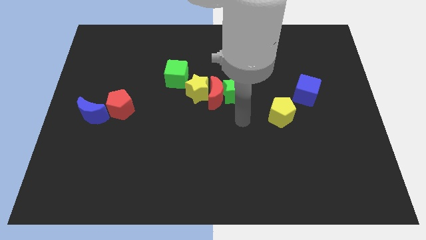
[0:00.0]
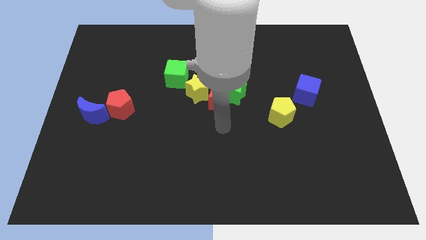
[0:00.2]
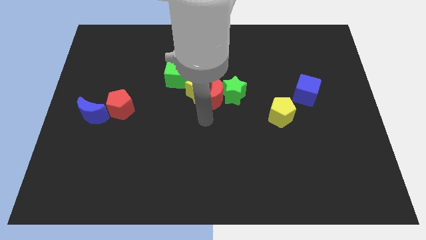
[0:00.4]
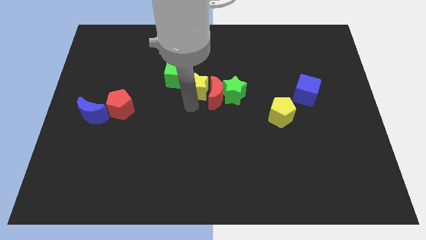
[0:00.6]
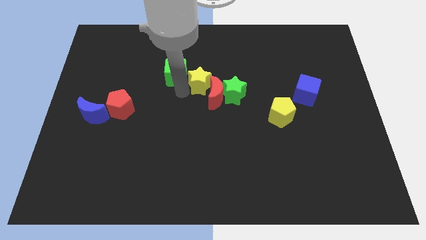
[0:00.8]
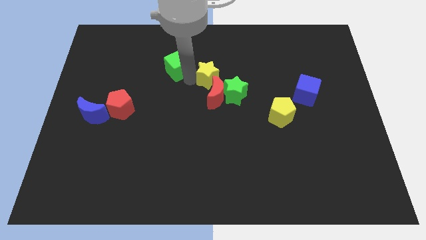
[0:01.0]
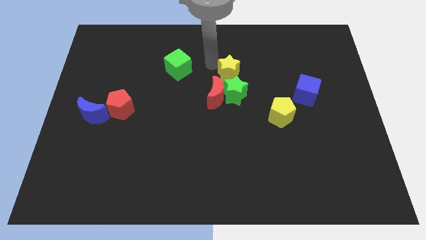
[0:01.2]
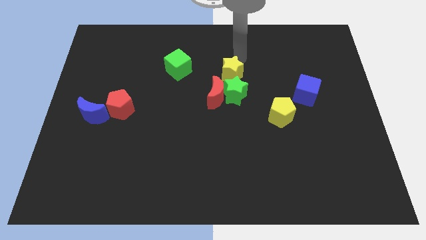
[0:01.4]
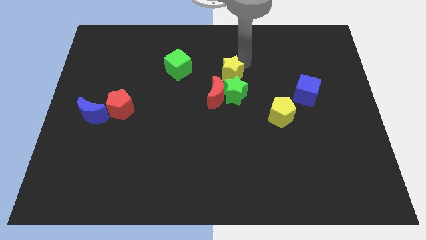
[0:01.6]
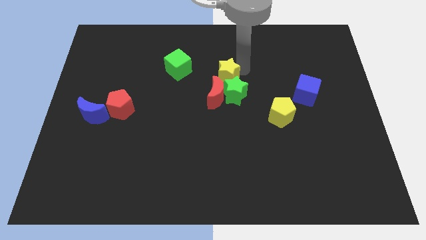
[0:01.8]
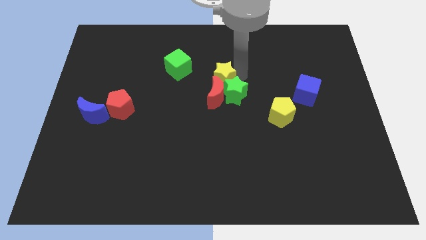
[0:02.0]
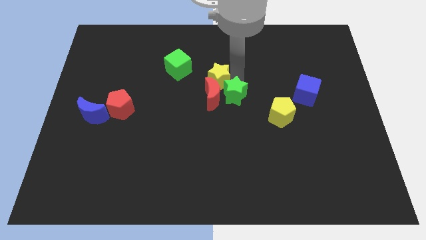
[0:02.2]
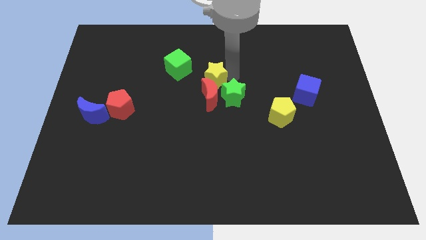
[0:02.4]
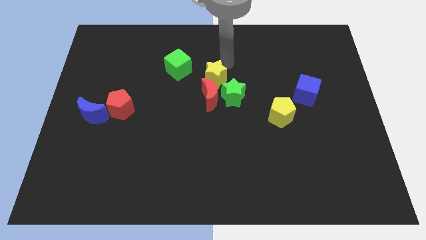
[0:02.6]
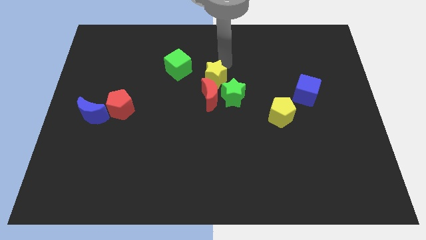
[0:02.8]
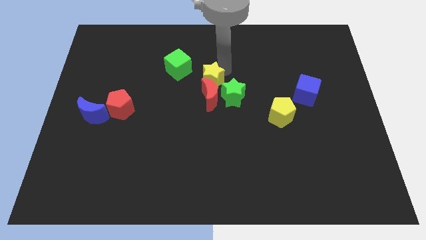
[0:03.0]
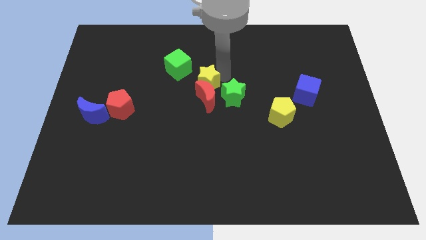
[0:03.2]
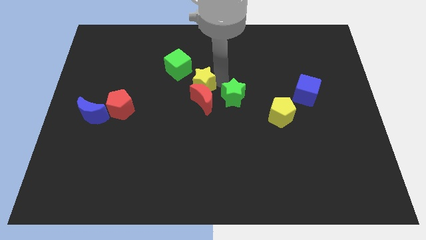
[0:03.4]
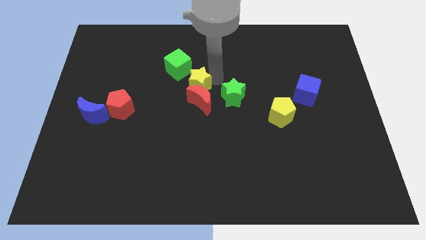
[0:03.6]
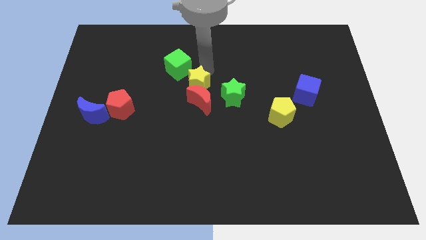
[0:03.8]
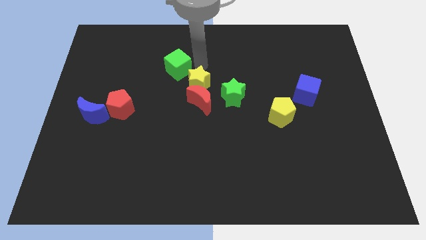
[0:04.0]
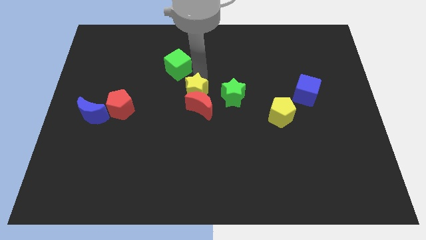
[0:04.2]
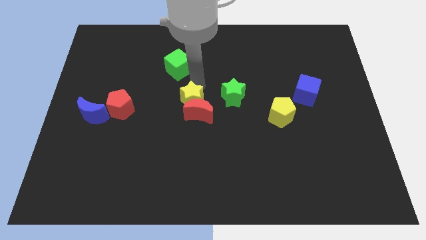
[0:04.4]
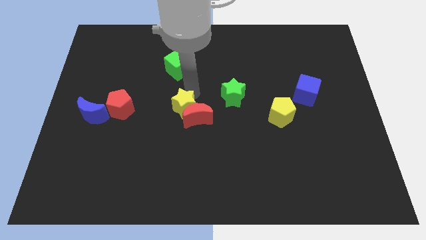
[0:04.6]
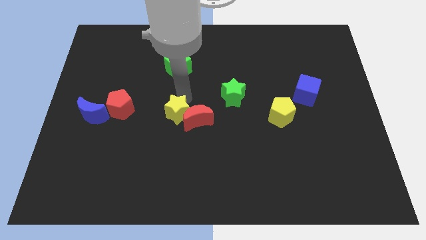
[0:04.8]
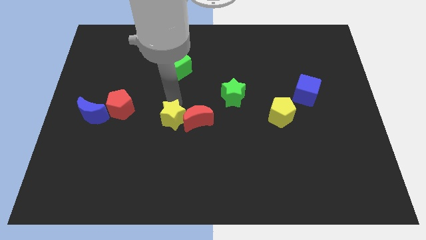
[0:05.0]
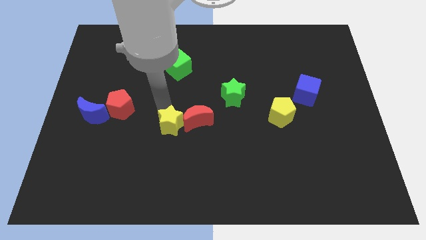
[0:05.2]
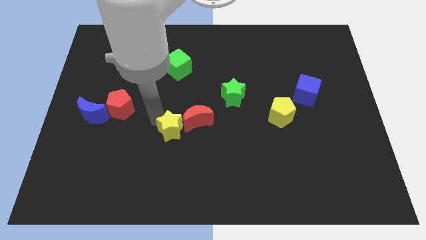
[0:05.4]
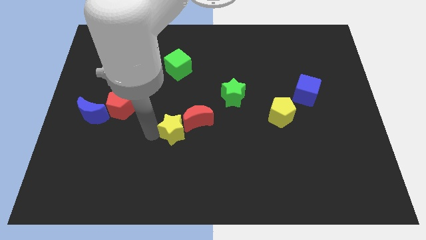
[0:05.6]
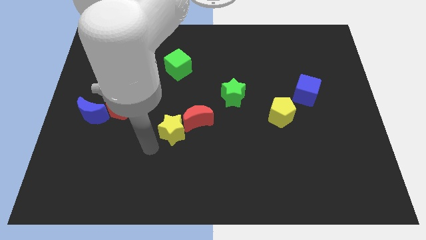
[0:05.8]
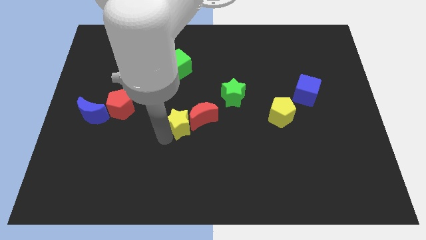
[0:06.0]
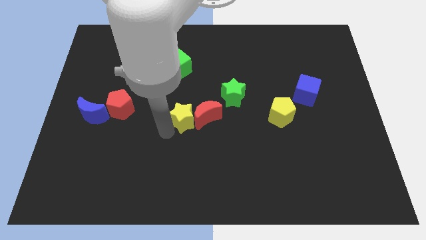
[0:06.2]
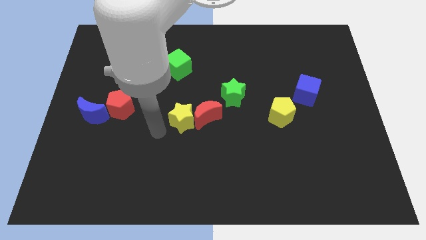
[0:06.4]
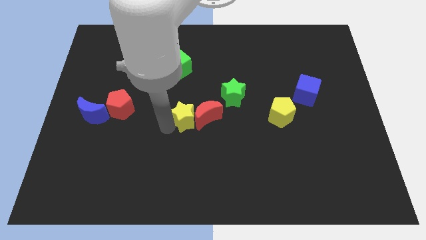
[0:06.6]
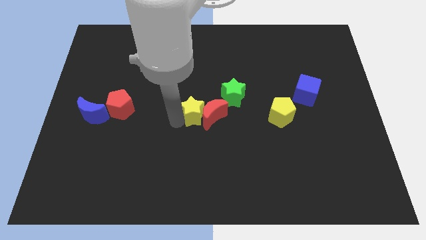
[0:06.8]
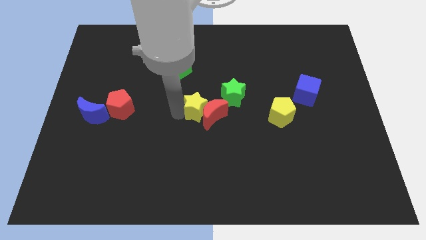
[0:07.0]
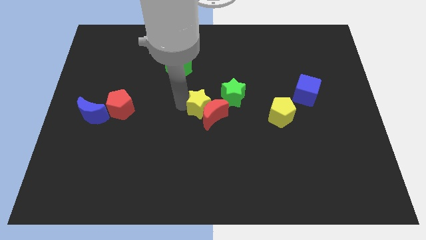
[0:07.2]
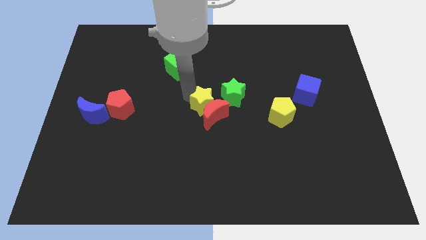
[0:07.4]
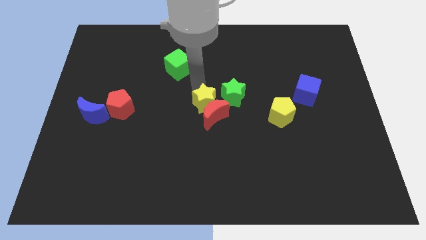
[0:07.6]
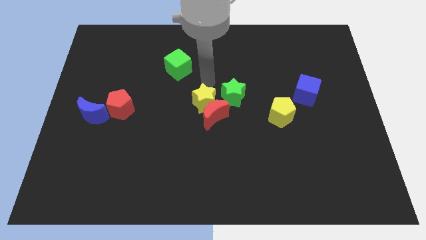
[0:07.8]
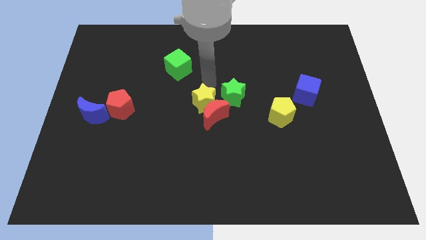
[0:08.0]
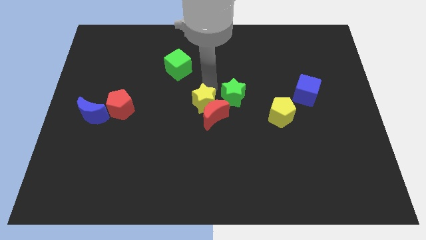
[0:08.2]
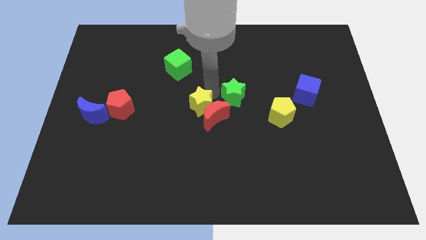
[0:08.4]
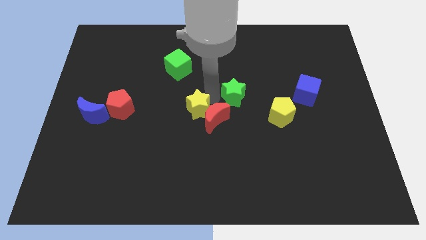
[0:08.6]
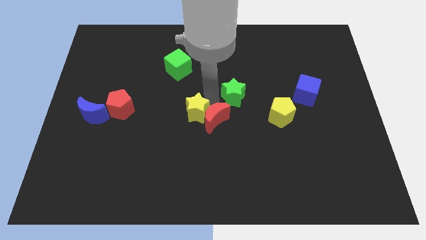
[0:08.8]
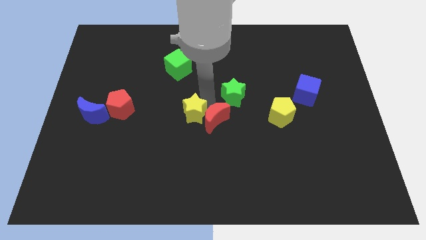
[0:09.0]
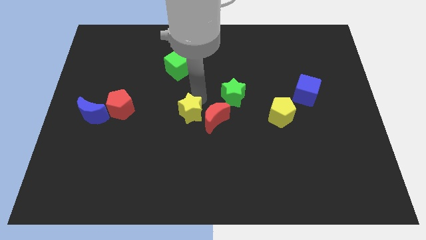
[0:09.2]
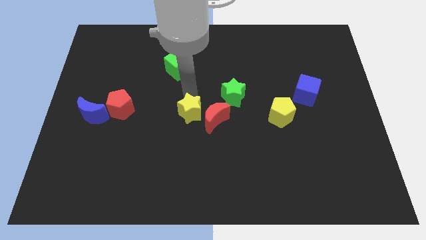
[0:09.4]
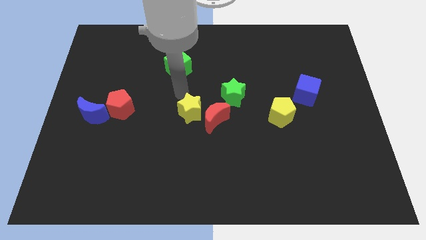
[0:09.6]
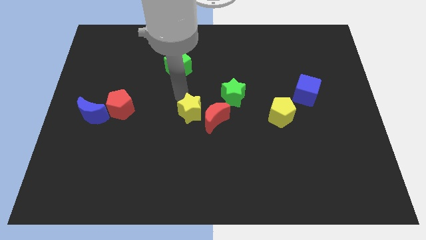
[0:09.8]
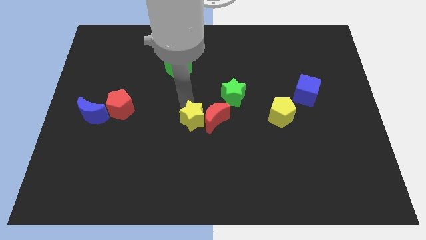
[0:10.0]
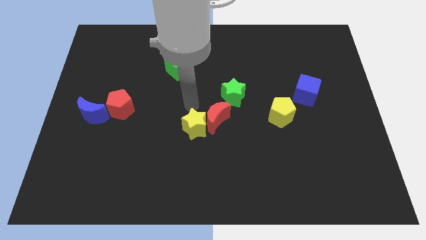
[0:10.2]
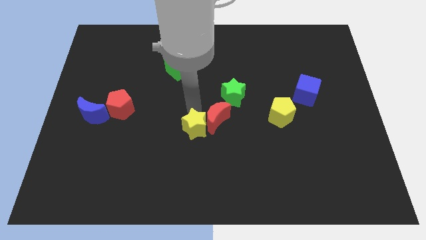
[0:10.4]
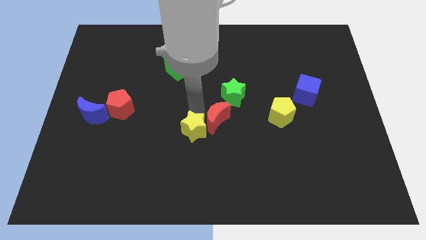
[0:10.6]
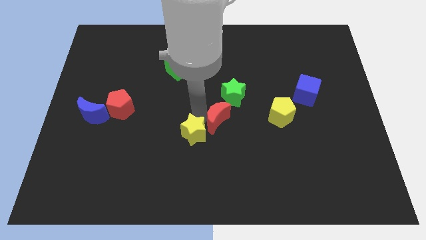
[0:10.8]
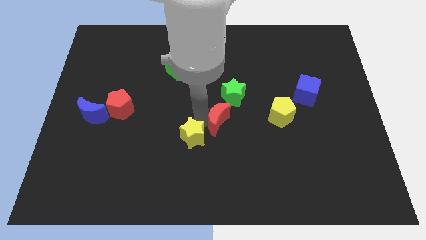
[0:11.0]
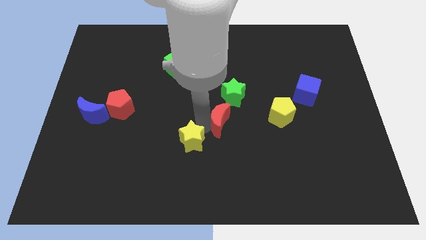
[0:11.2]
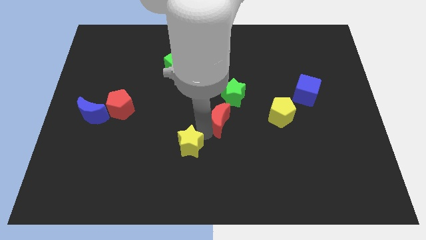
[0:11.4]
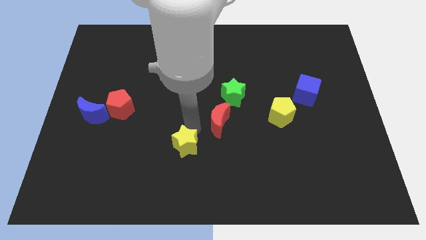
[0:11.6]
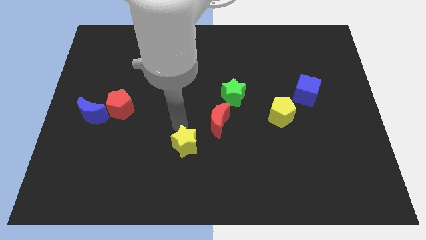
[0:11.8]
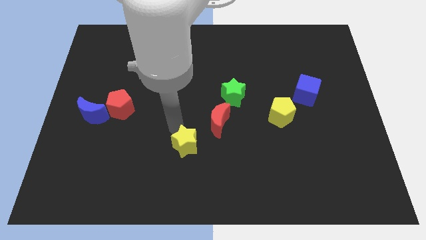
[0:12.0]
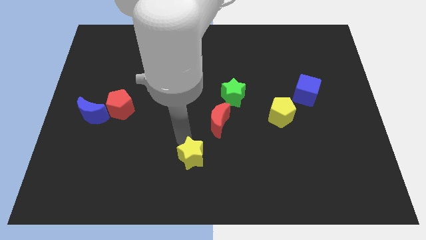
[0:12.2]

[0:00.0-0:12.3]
move the yellow star to the bottom

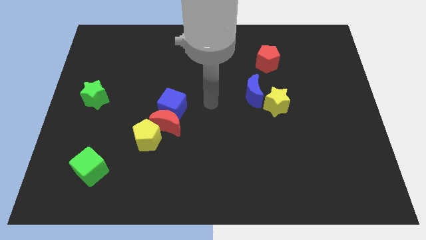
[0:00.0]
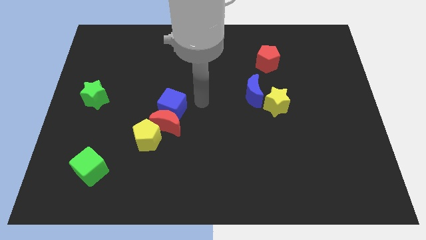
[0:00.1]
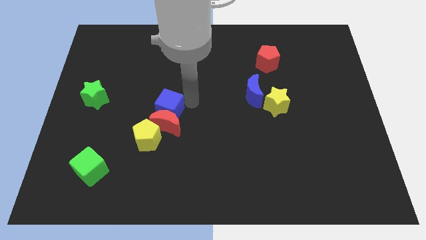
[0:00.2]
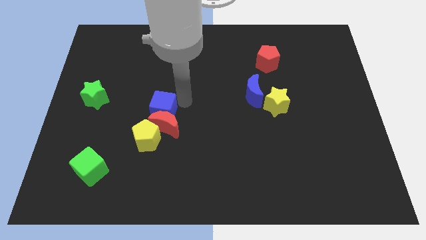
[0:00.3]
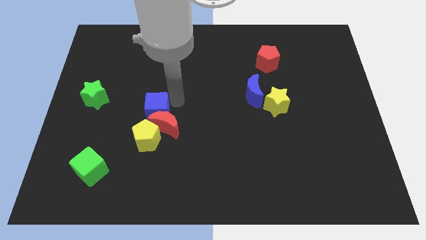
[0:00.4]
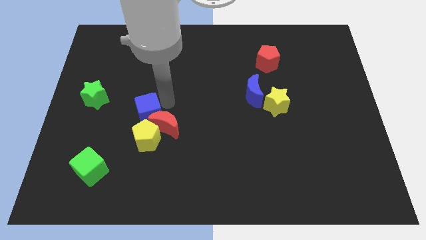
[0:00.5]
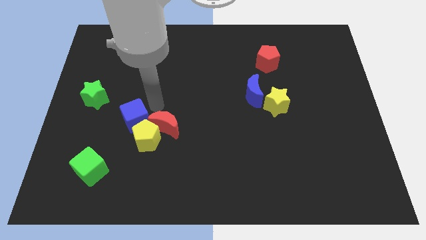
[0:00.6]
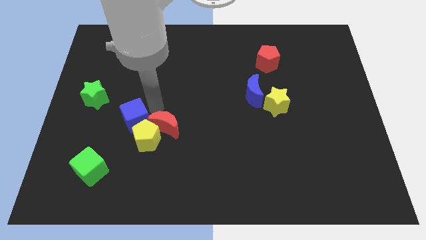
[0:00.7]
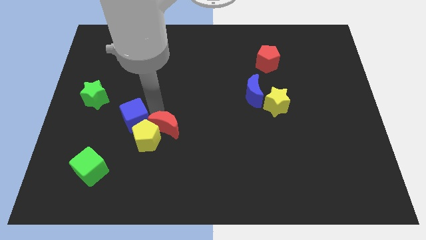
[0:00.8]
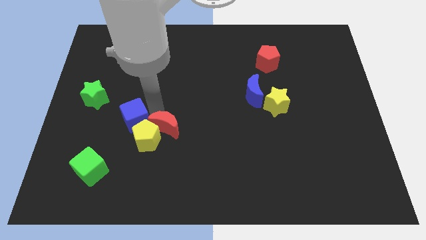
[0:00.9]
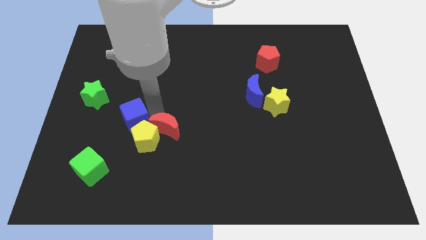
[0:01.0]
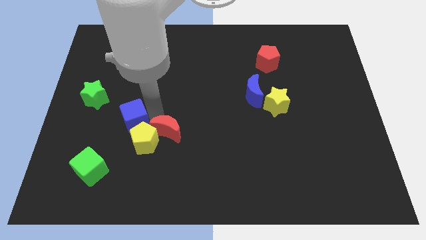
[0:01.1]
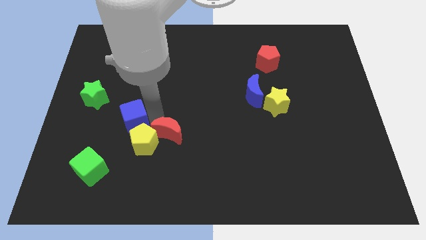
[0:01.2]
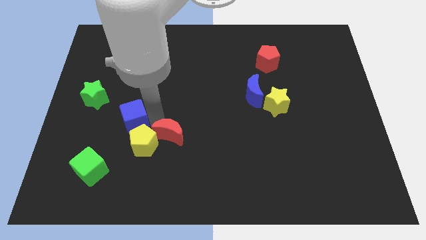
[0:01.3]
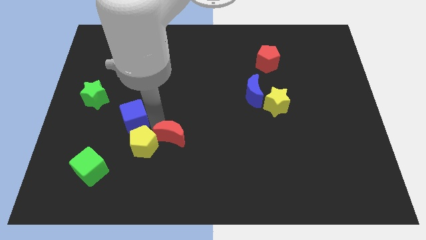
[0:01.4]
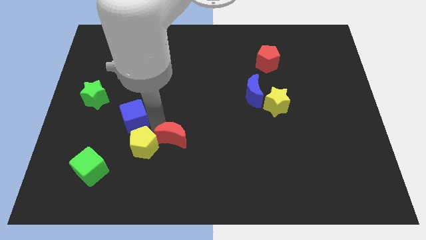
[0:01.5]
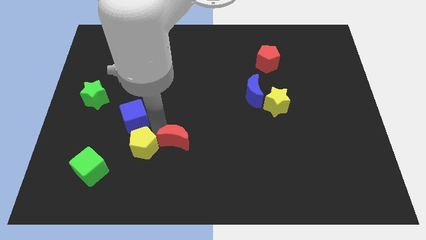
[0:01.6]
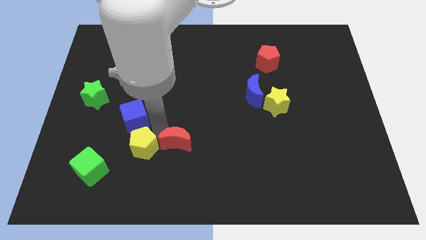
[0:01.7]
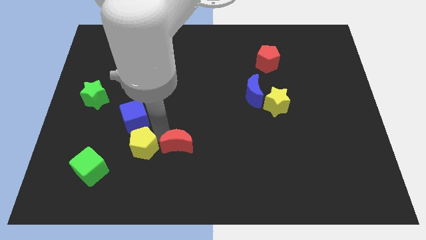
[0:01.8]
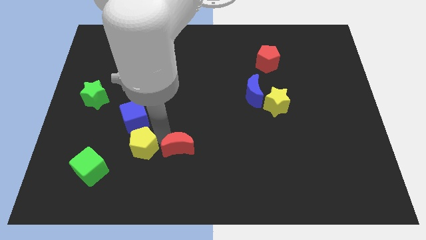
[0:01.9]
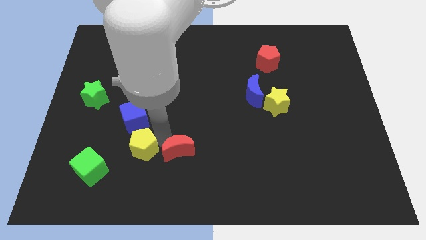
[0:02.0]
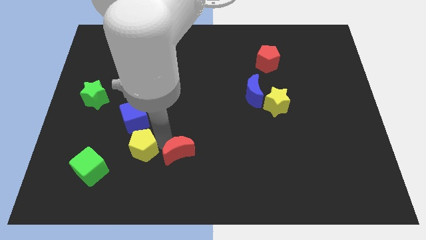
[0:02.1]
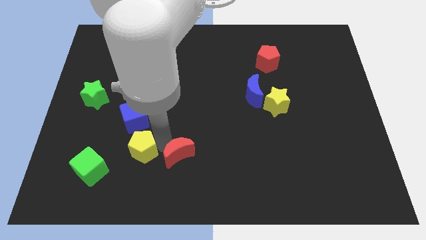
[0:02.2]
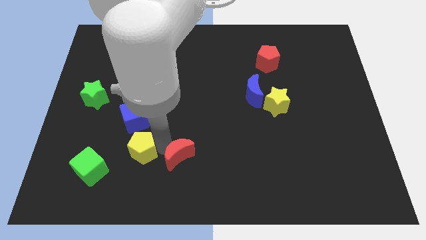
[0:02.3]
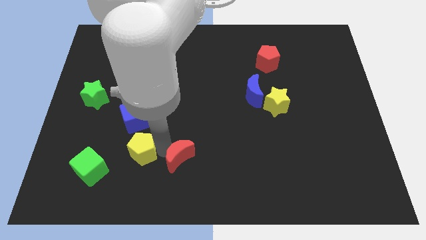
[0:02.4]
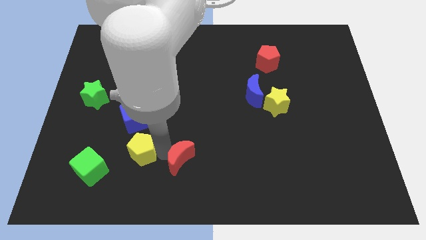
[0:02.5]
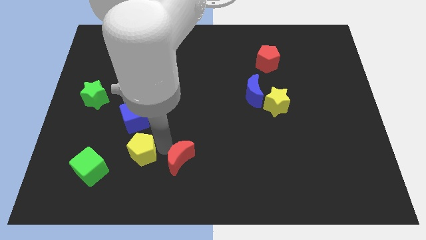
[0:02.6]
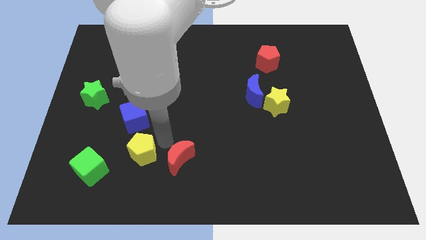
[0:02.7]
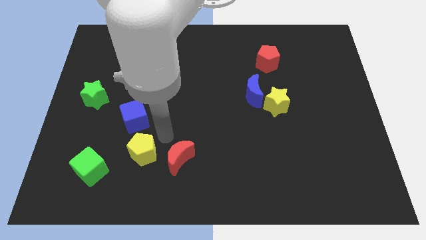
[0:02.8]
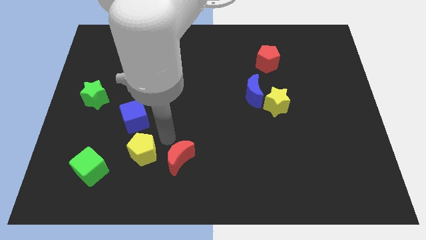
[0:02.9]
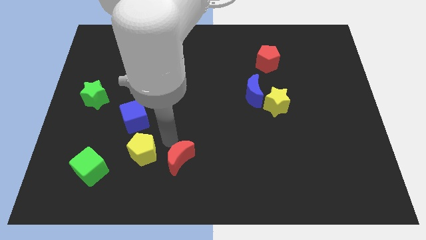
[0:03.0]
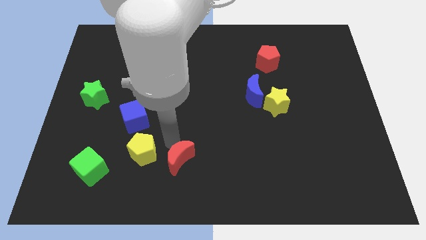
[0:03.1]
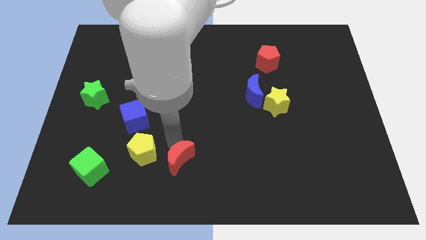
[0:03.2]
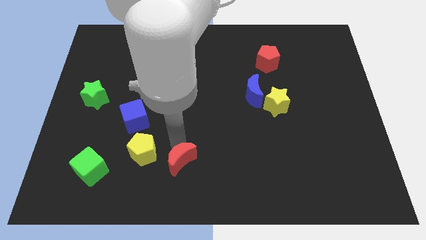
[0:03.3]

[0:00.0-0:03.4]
slide the red moon to the bottom side
